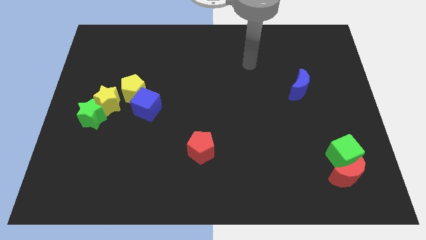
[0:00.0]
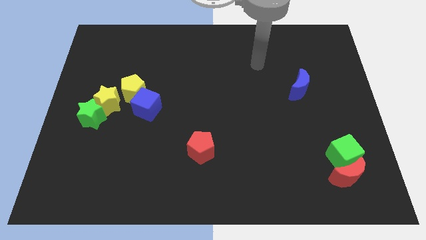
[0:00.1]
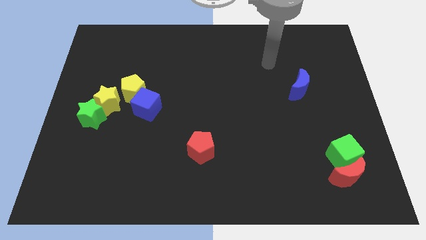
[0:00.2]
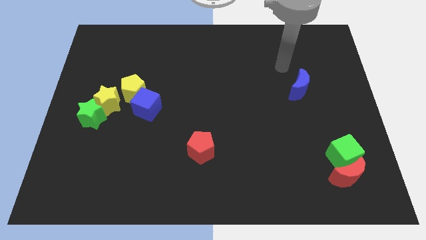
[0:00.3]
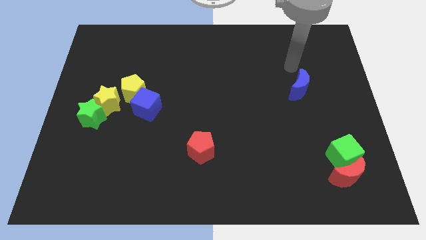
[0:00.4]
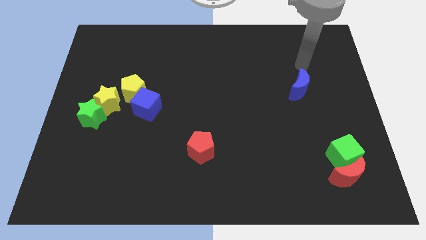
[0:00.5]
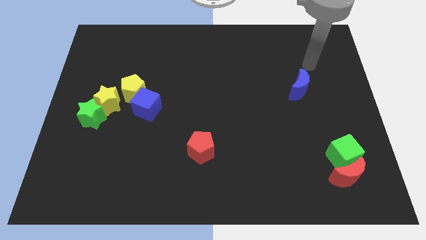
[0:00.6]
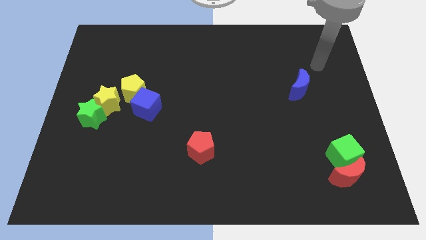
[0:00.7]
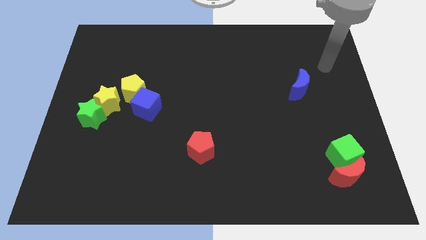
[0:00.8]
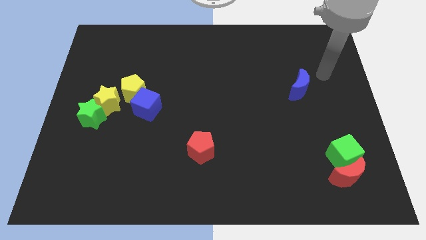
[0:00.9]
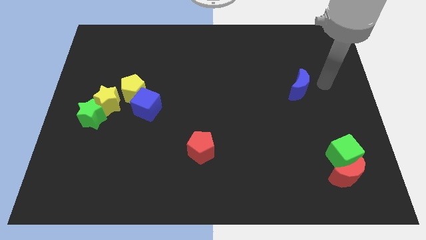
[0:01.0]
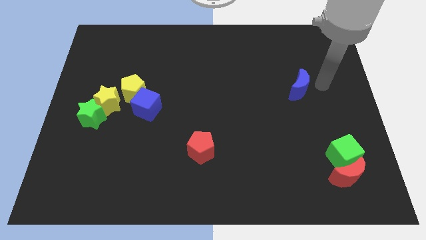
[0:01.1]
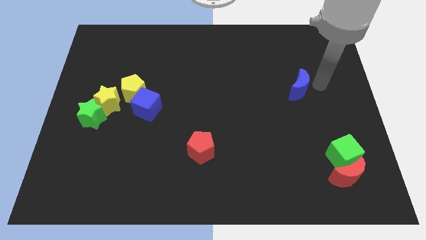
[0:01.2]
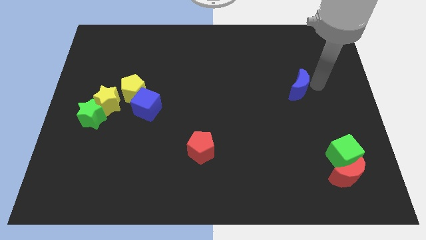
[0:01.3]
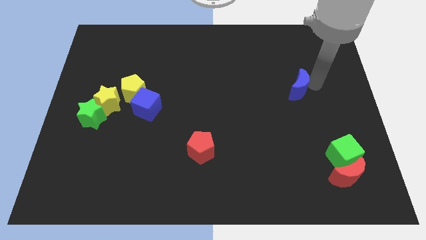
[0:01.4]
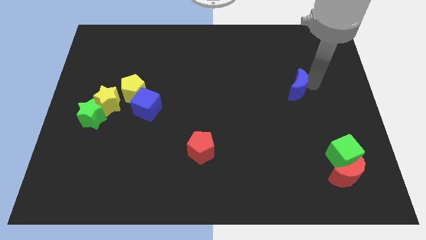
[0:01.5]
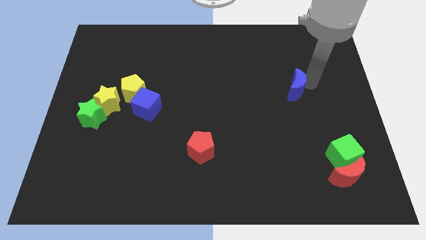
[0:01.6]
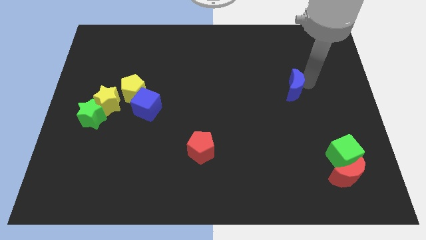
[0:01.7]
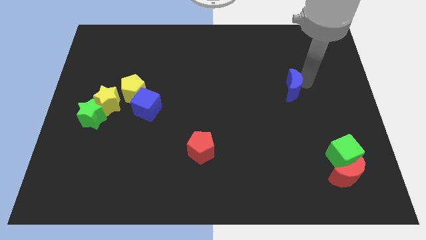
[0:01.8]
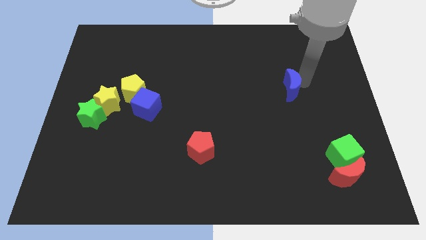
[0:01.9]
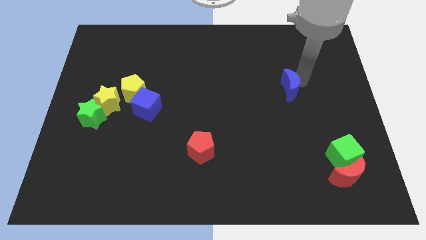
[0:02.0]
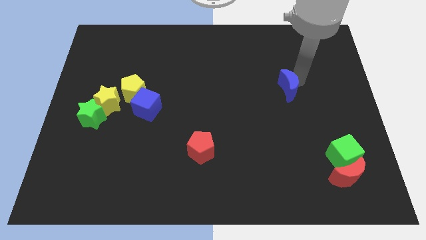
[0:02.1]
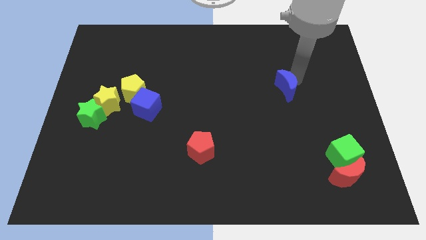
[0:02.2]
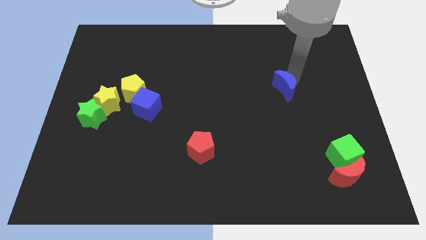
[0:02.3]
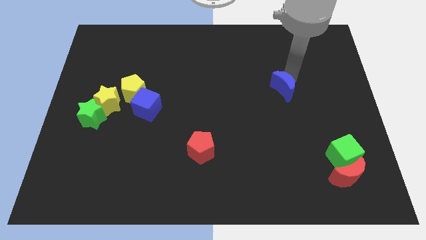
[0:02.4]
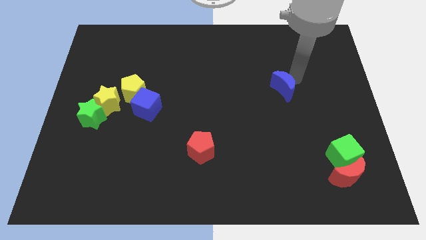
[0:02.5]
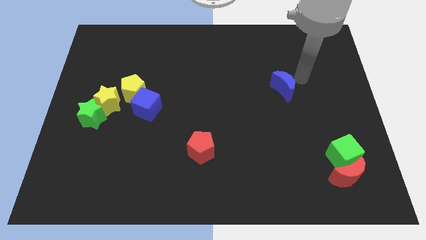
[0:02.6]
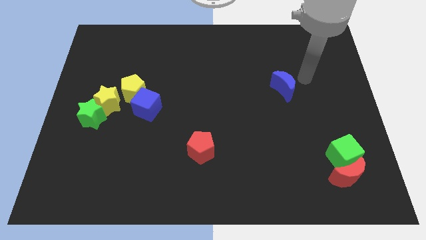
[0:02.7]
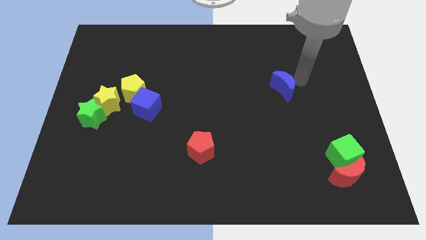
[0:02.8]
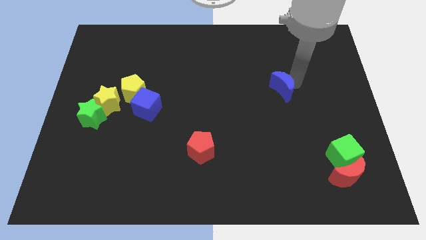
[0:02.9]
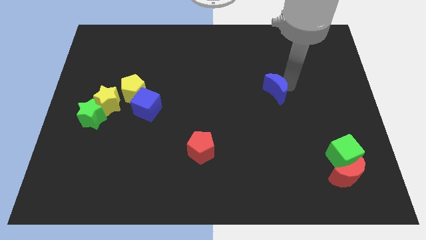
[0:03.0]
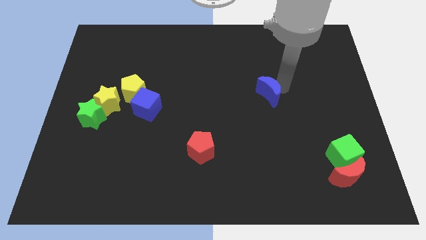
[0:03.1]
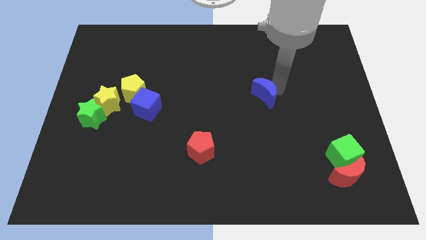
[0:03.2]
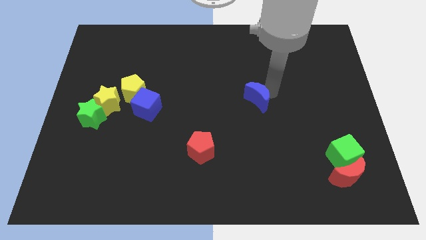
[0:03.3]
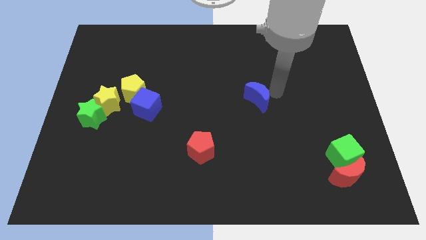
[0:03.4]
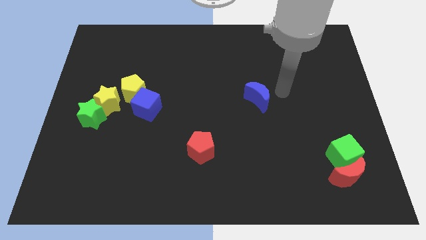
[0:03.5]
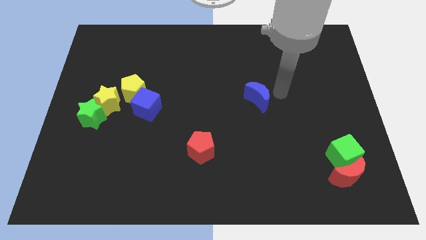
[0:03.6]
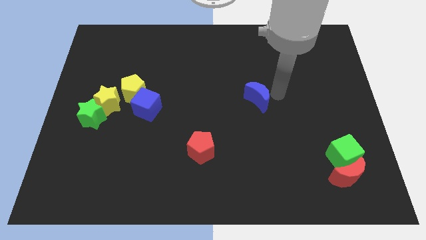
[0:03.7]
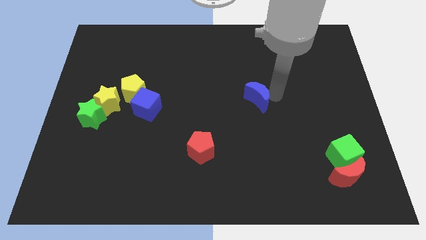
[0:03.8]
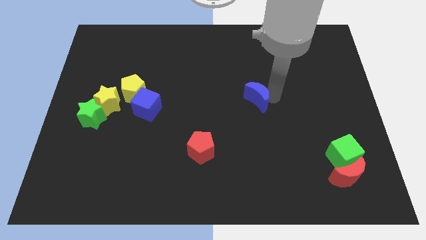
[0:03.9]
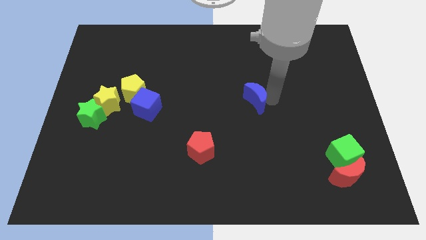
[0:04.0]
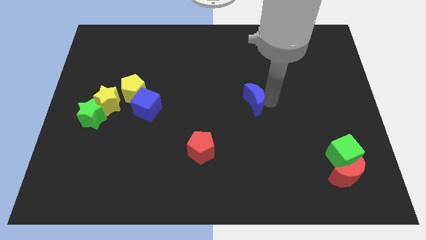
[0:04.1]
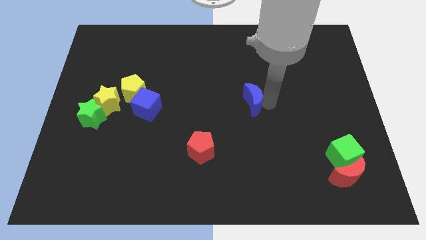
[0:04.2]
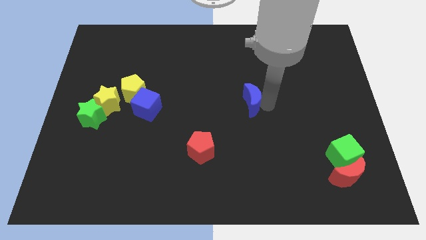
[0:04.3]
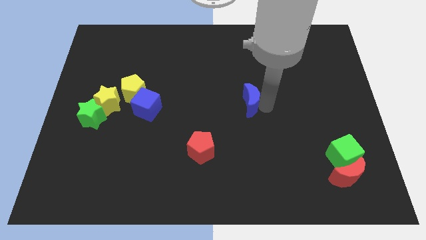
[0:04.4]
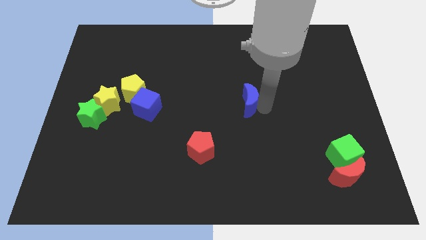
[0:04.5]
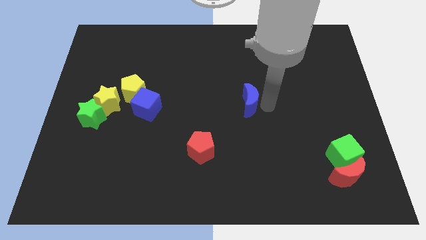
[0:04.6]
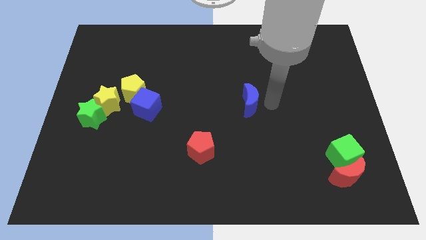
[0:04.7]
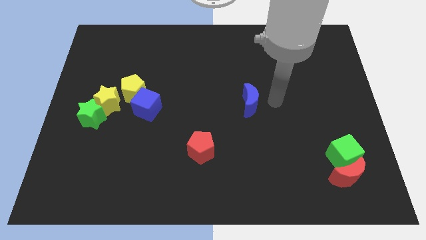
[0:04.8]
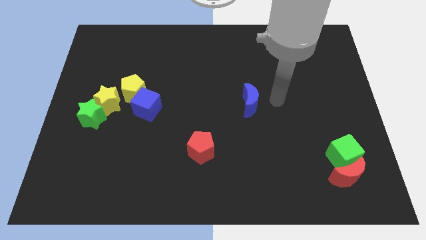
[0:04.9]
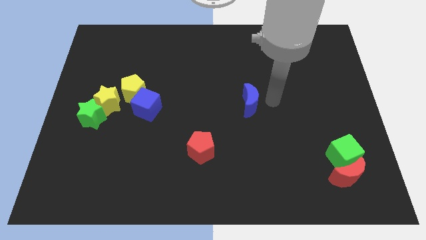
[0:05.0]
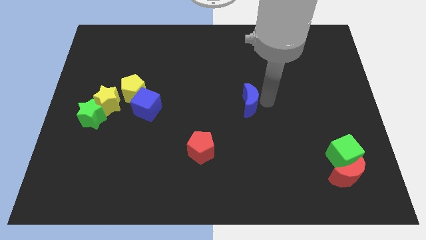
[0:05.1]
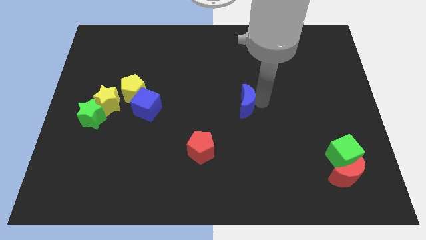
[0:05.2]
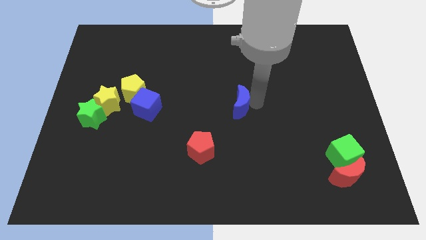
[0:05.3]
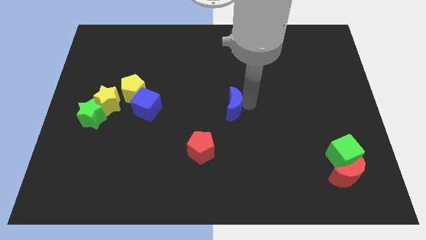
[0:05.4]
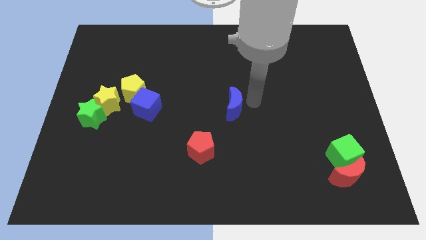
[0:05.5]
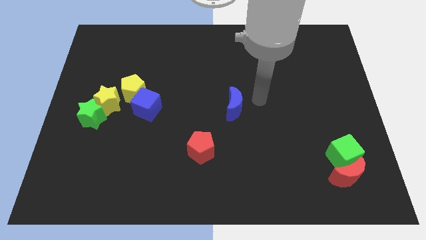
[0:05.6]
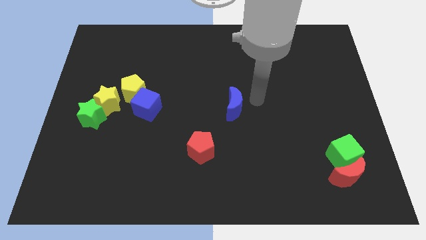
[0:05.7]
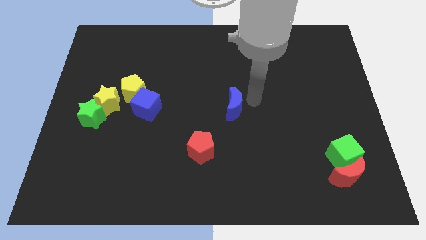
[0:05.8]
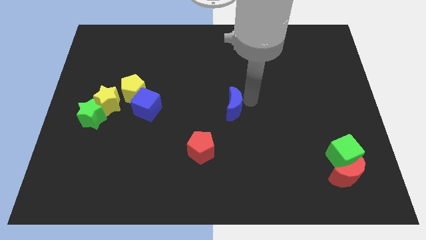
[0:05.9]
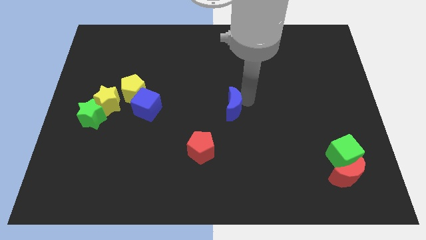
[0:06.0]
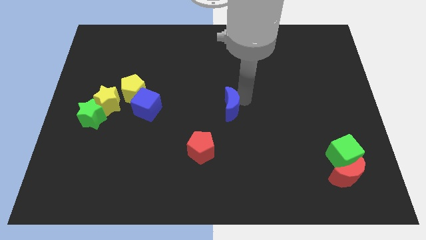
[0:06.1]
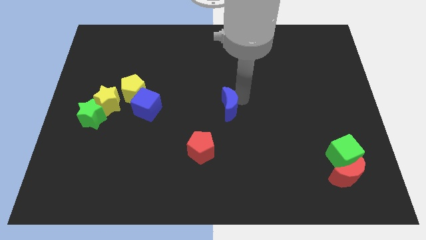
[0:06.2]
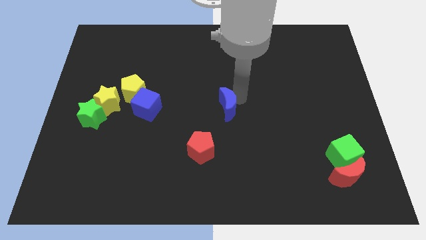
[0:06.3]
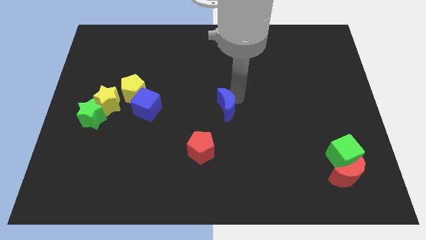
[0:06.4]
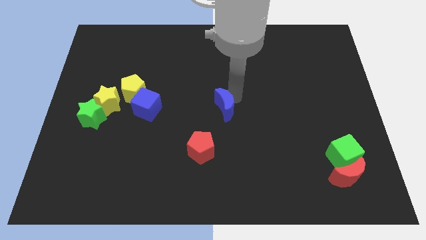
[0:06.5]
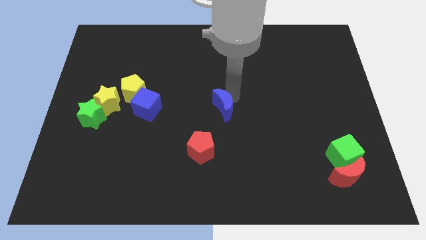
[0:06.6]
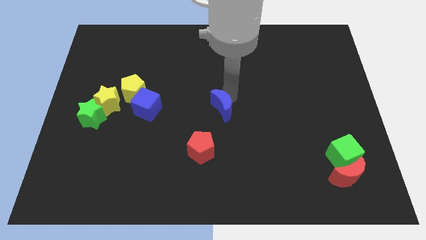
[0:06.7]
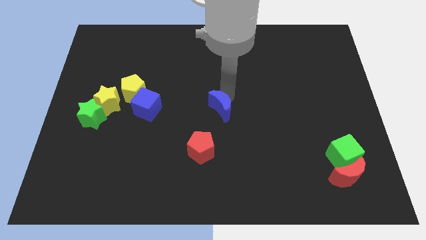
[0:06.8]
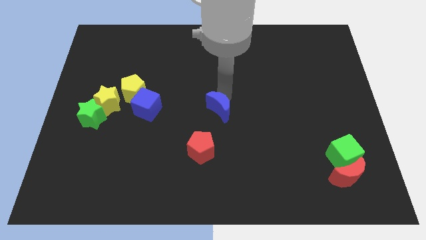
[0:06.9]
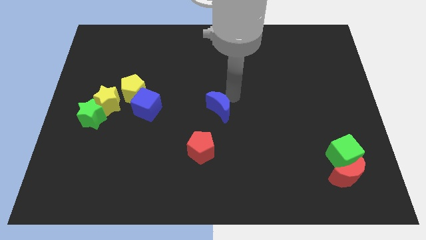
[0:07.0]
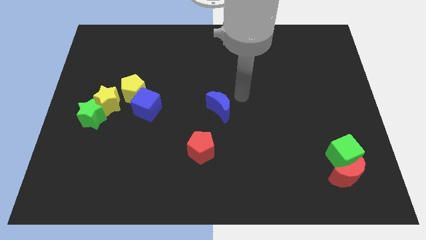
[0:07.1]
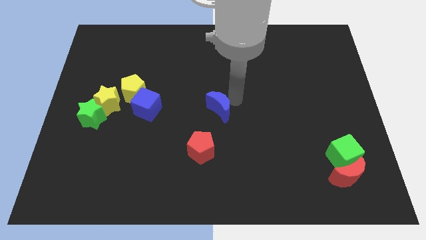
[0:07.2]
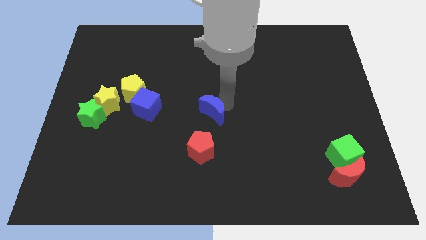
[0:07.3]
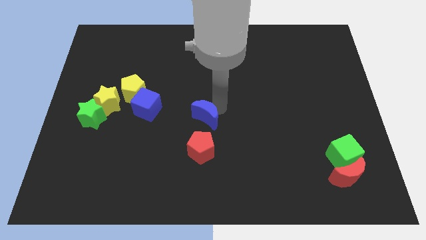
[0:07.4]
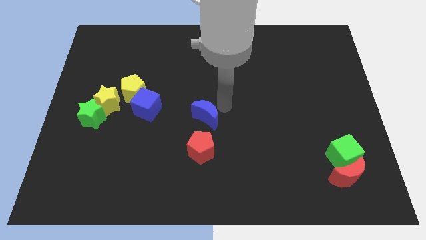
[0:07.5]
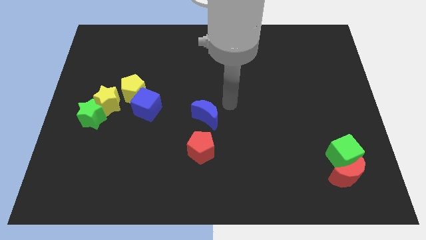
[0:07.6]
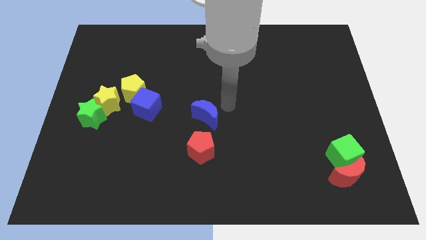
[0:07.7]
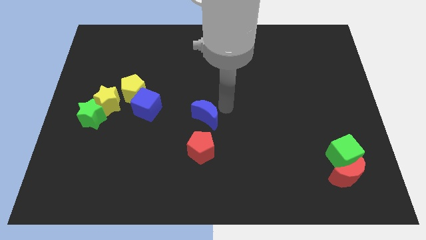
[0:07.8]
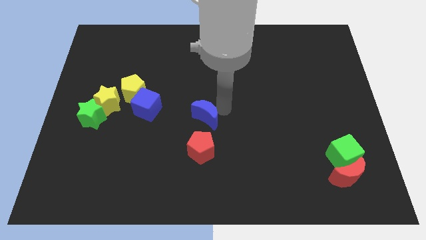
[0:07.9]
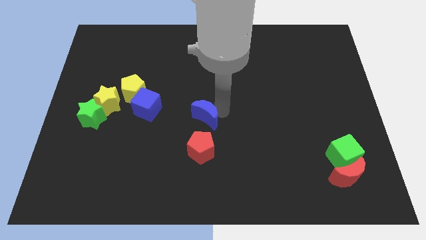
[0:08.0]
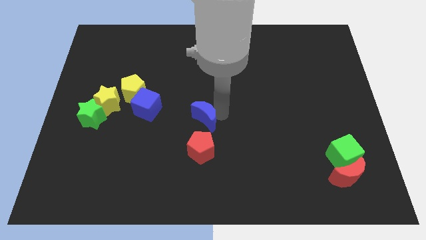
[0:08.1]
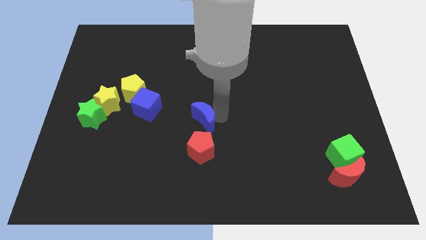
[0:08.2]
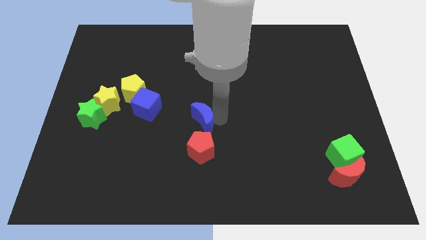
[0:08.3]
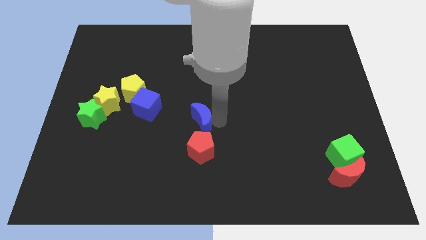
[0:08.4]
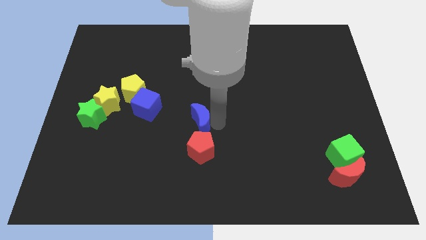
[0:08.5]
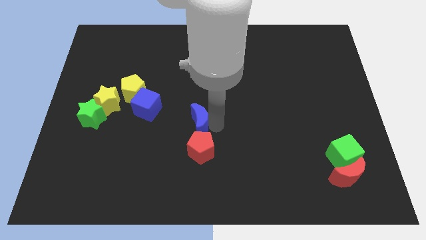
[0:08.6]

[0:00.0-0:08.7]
move the blue moon to the top left side of the red pentagon
